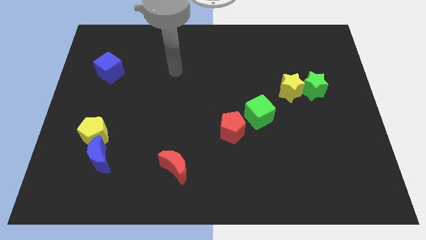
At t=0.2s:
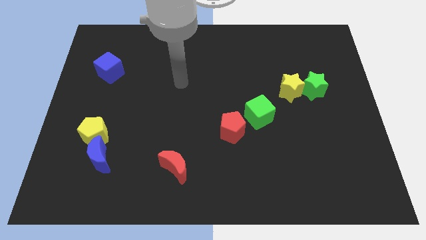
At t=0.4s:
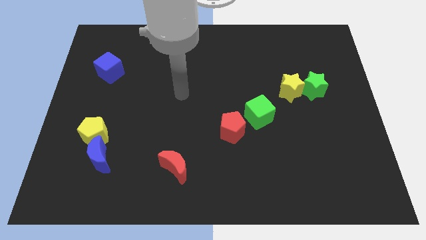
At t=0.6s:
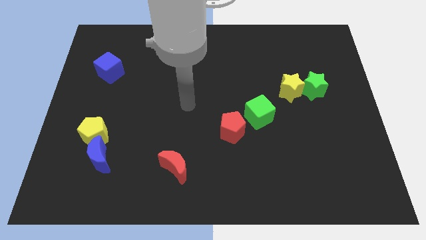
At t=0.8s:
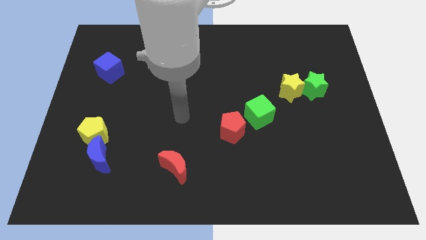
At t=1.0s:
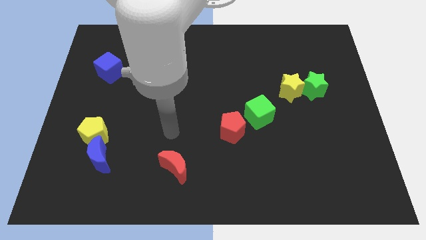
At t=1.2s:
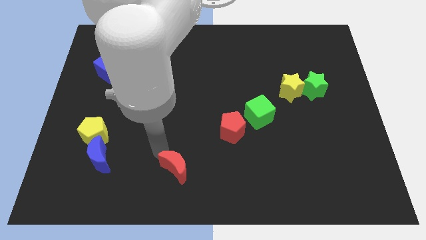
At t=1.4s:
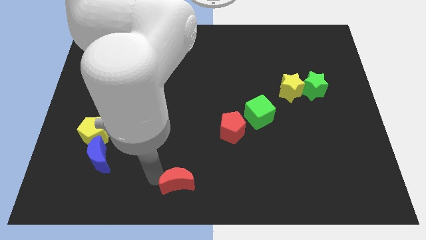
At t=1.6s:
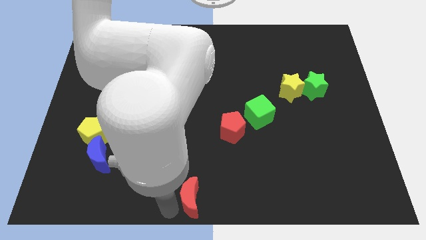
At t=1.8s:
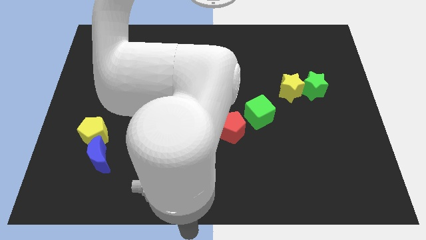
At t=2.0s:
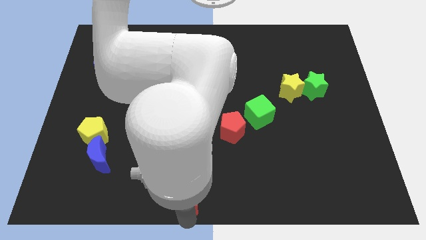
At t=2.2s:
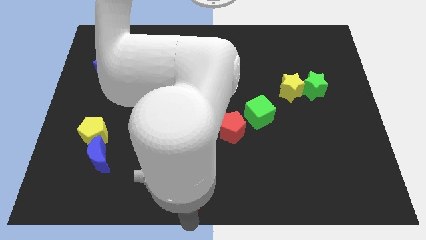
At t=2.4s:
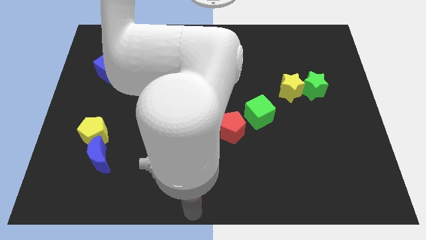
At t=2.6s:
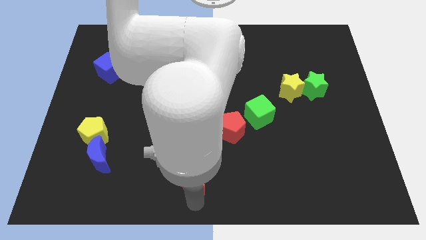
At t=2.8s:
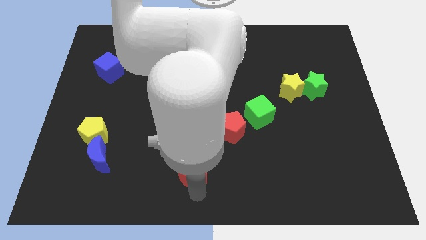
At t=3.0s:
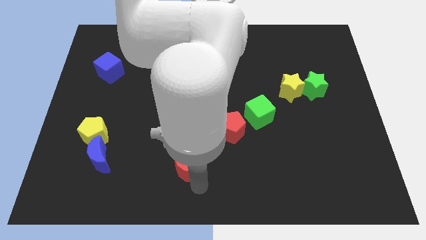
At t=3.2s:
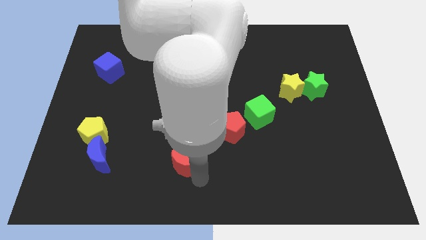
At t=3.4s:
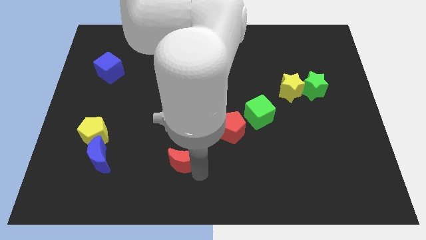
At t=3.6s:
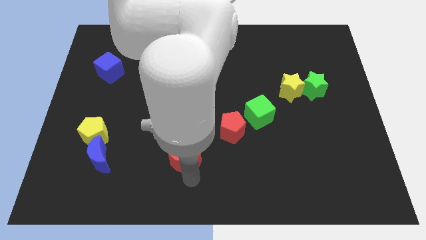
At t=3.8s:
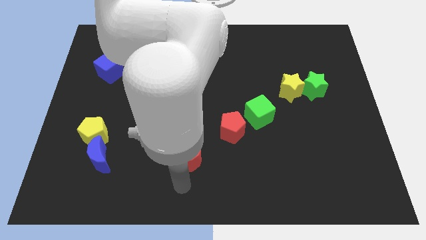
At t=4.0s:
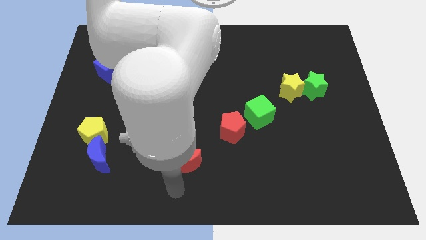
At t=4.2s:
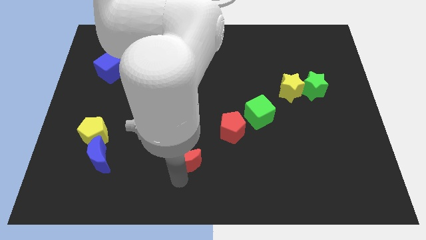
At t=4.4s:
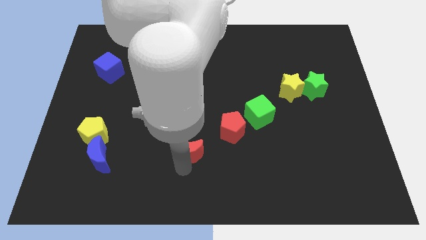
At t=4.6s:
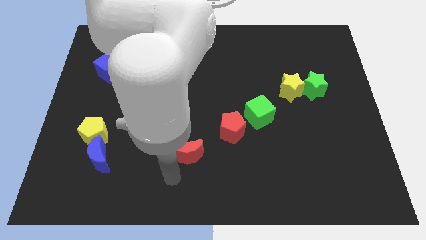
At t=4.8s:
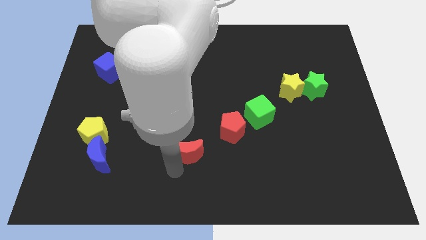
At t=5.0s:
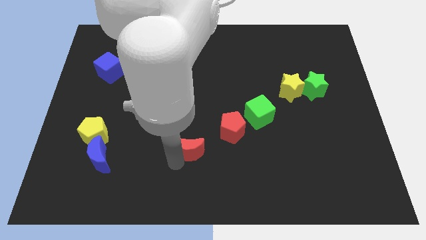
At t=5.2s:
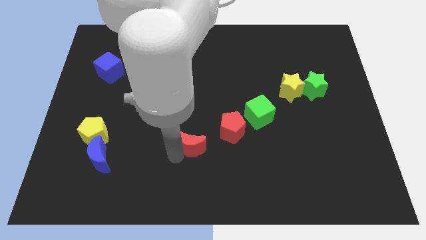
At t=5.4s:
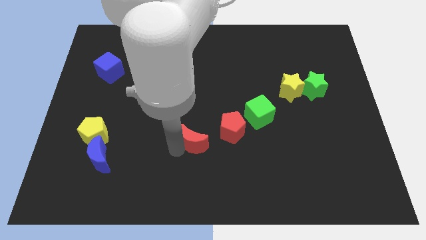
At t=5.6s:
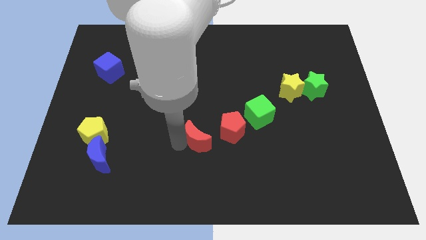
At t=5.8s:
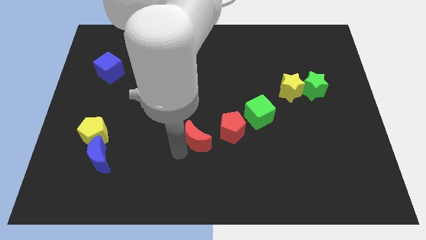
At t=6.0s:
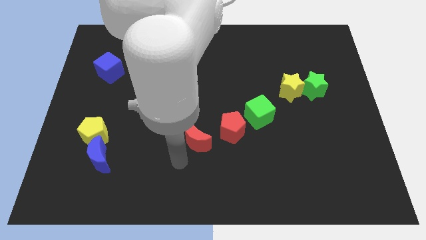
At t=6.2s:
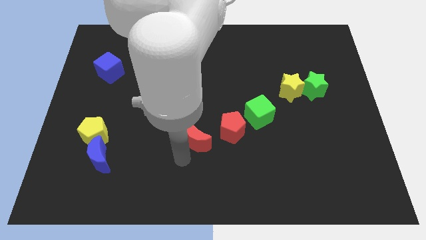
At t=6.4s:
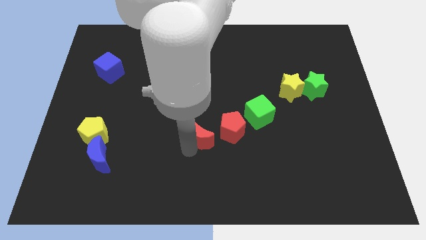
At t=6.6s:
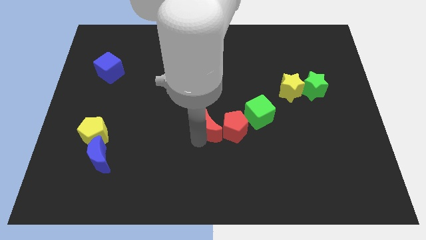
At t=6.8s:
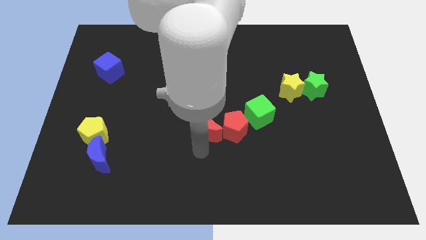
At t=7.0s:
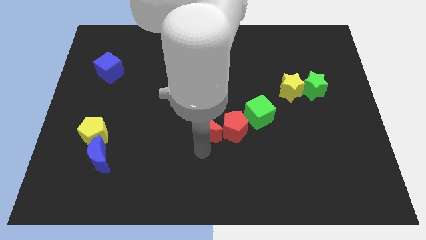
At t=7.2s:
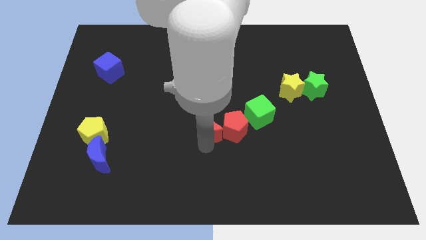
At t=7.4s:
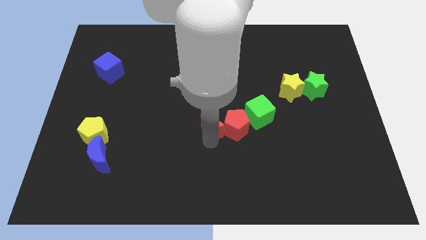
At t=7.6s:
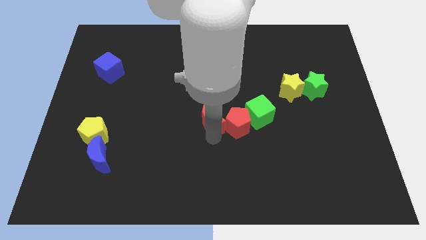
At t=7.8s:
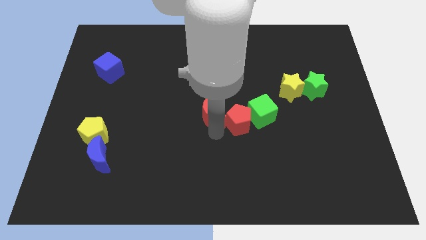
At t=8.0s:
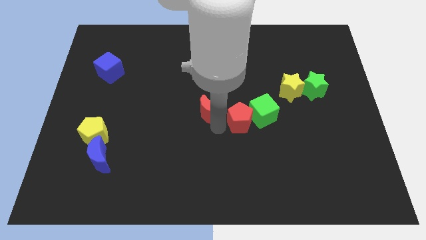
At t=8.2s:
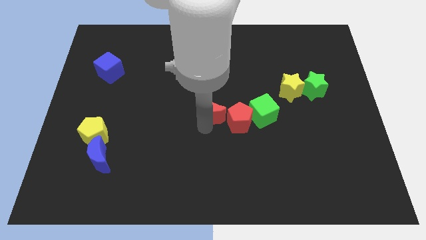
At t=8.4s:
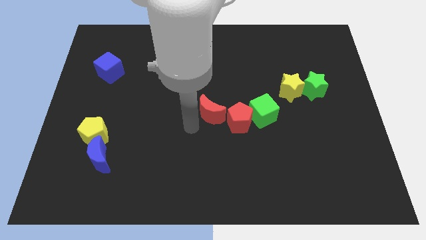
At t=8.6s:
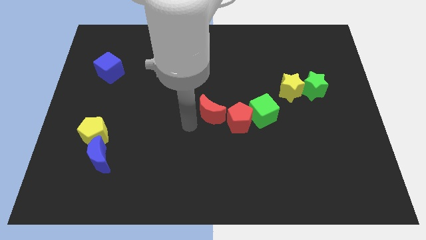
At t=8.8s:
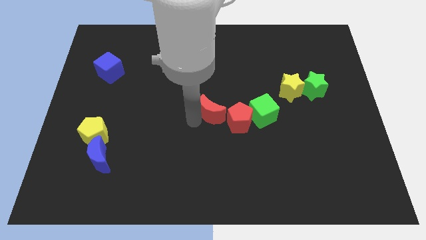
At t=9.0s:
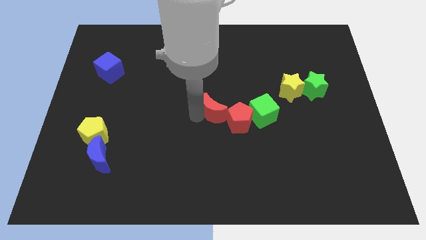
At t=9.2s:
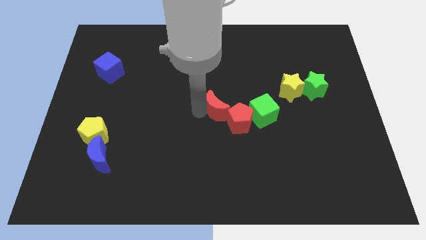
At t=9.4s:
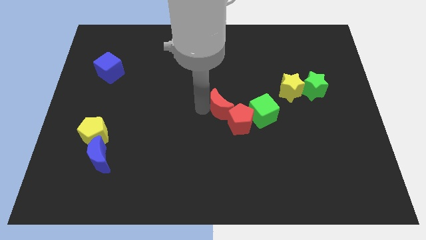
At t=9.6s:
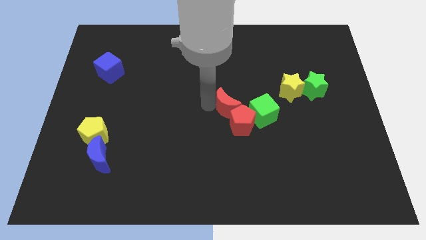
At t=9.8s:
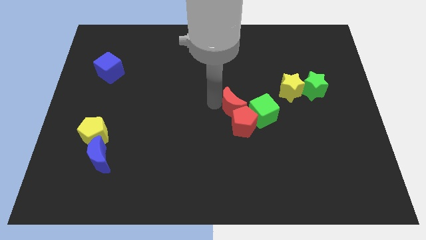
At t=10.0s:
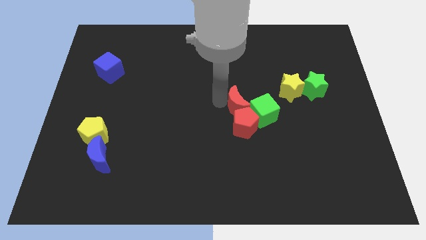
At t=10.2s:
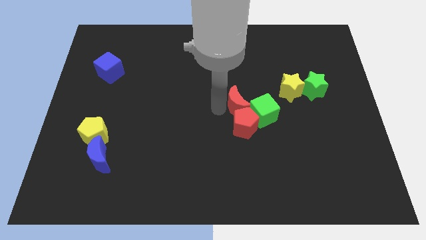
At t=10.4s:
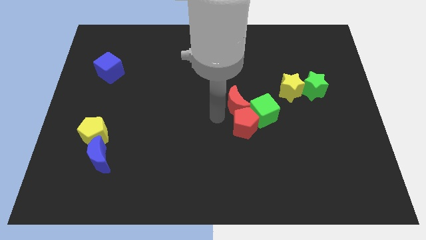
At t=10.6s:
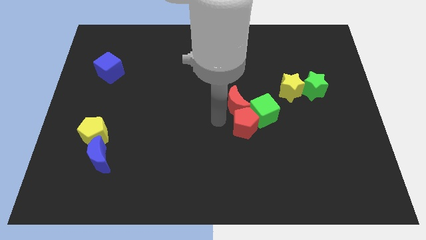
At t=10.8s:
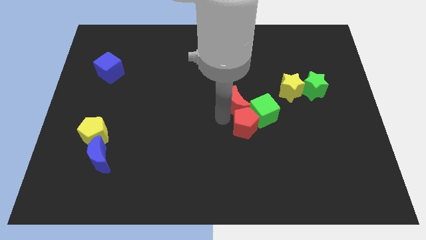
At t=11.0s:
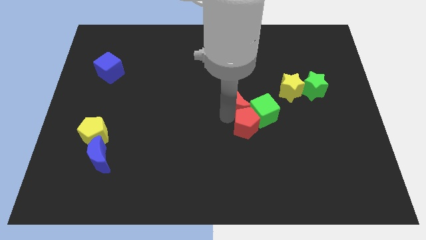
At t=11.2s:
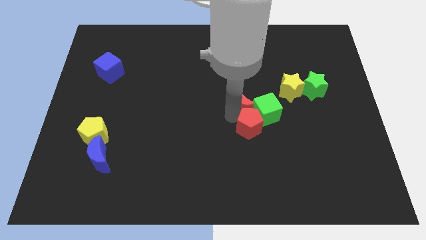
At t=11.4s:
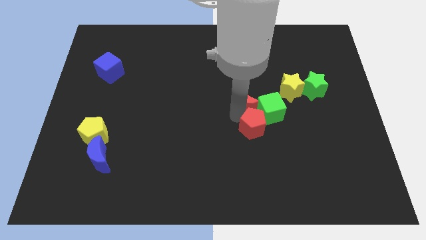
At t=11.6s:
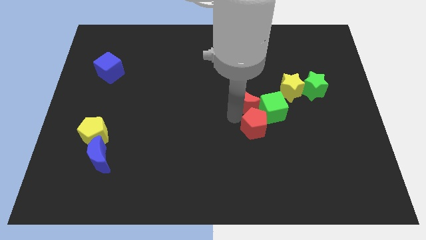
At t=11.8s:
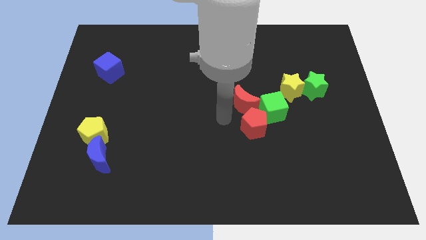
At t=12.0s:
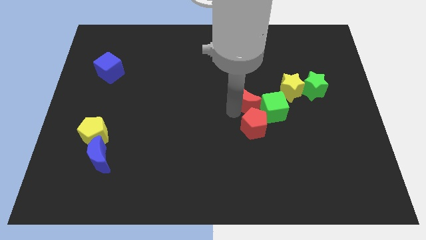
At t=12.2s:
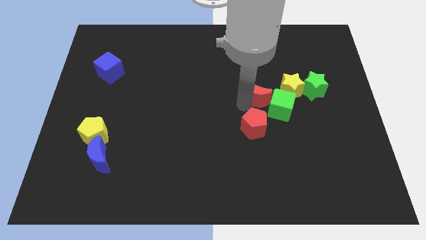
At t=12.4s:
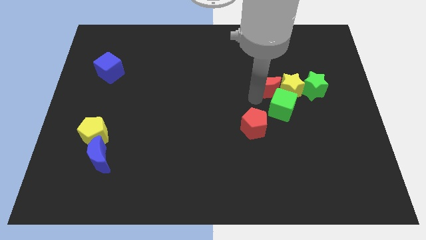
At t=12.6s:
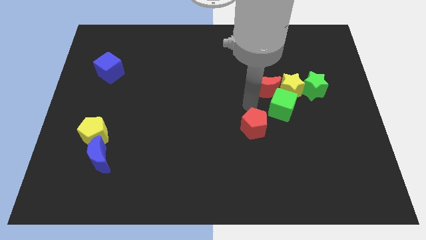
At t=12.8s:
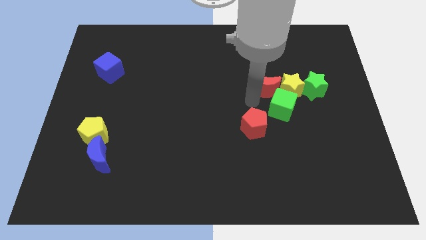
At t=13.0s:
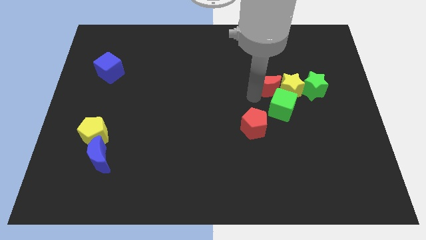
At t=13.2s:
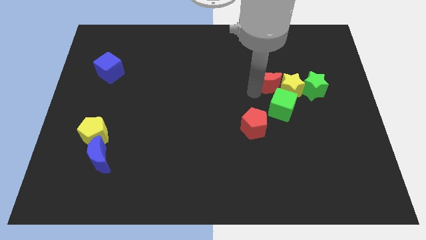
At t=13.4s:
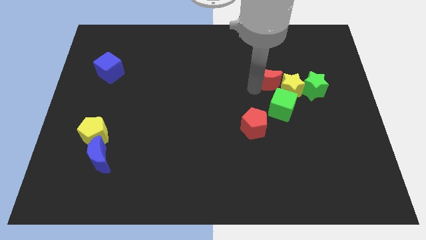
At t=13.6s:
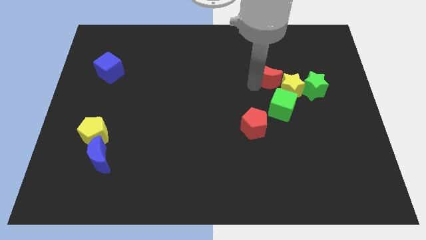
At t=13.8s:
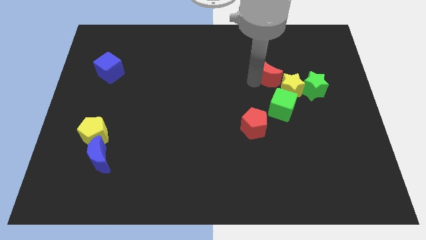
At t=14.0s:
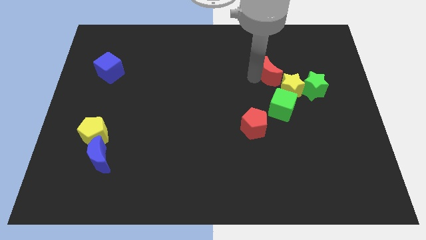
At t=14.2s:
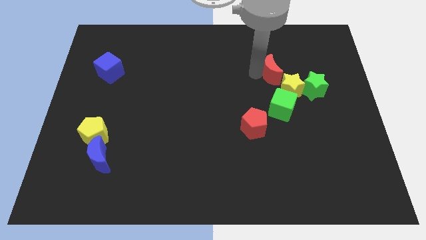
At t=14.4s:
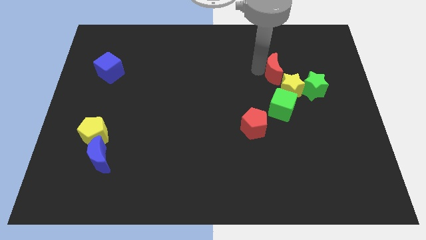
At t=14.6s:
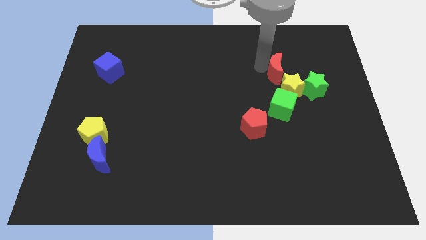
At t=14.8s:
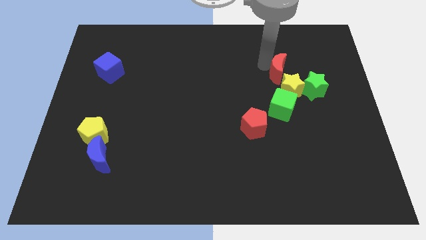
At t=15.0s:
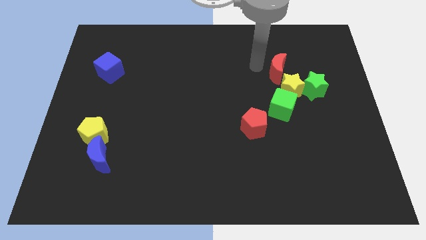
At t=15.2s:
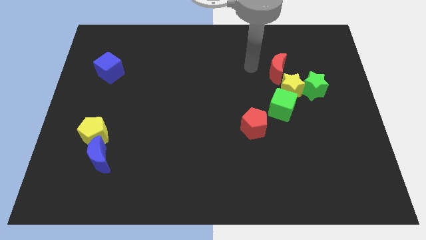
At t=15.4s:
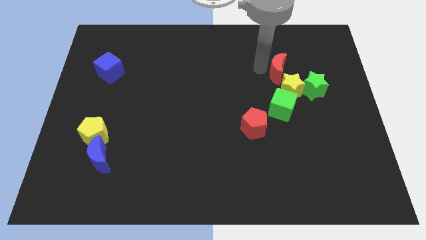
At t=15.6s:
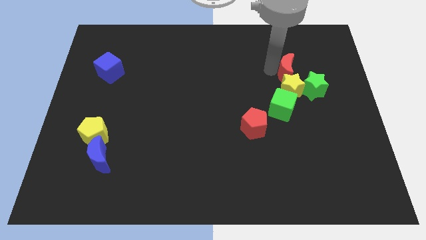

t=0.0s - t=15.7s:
push the red moon to the top right side of the yellow star
